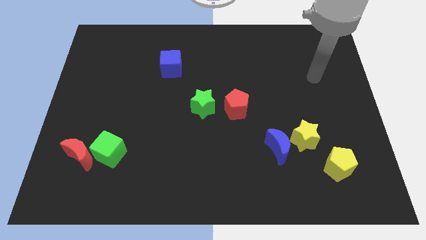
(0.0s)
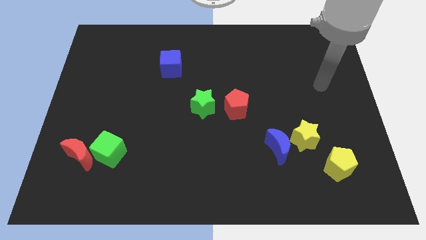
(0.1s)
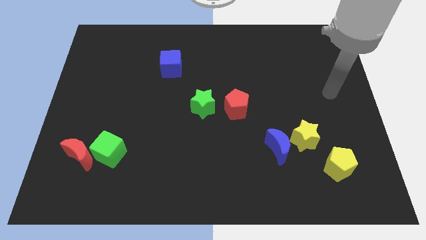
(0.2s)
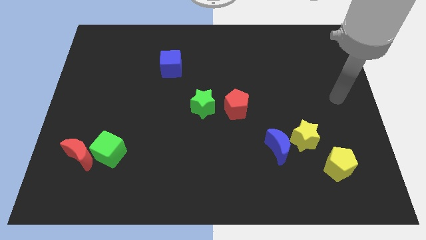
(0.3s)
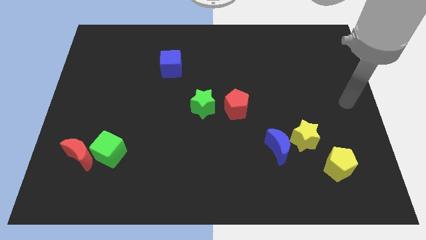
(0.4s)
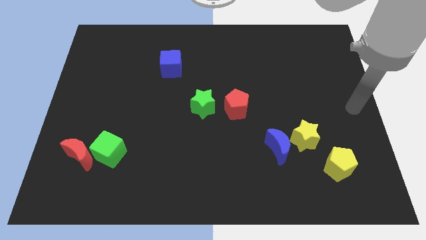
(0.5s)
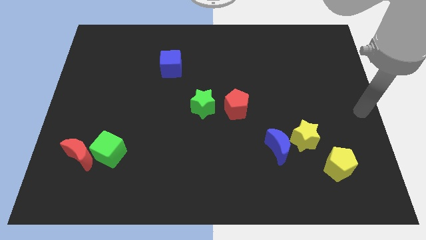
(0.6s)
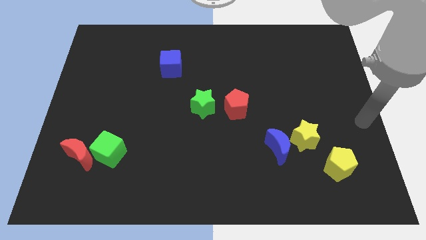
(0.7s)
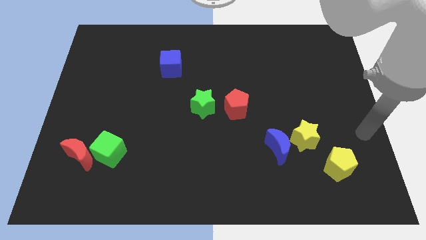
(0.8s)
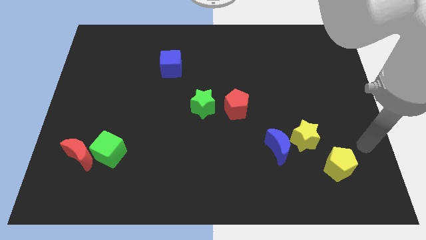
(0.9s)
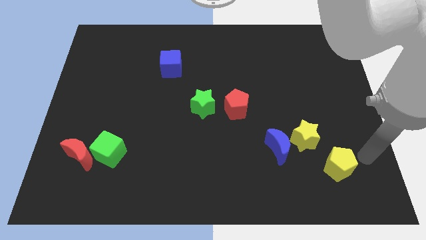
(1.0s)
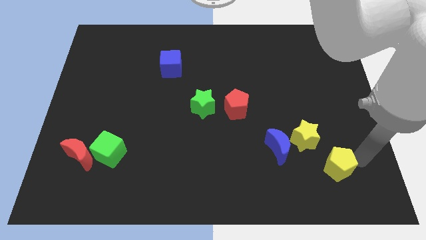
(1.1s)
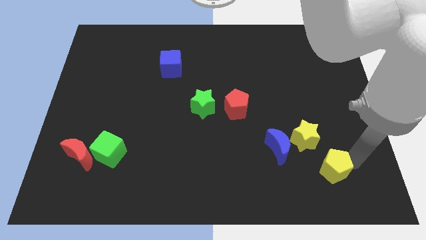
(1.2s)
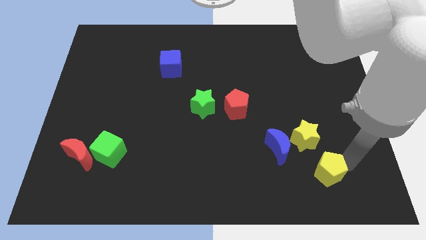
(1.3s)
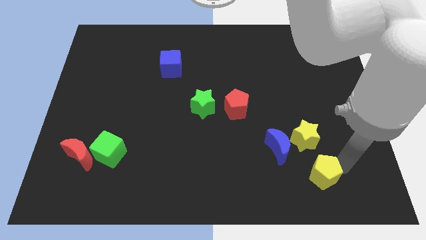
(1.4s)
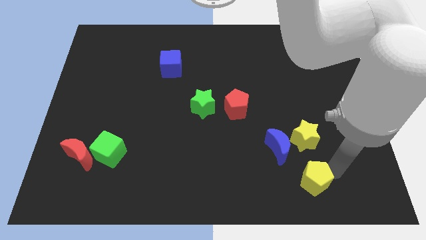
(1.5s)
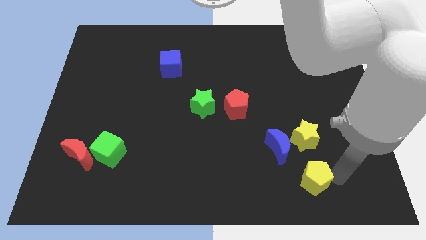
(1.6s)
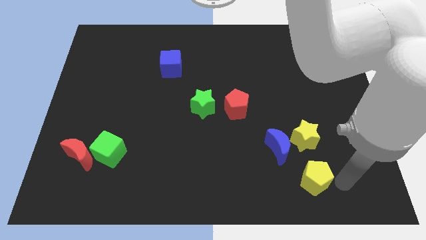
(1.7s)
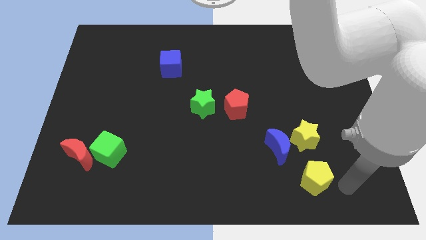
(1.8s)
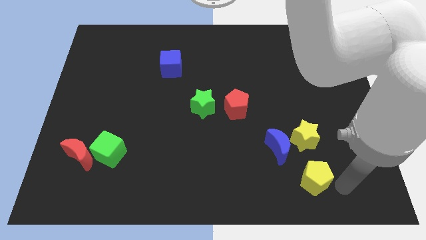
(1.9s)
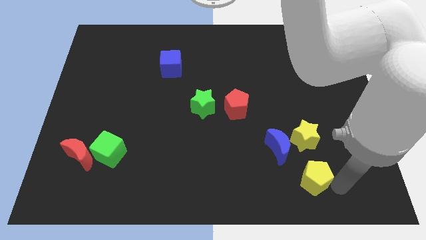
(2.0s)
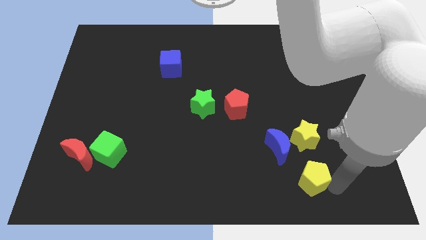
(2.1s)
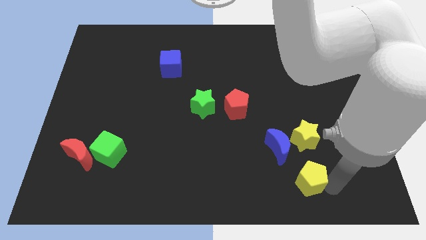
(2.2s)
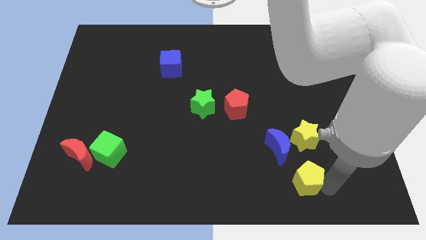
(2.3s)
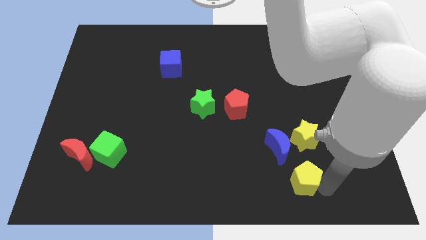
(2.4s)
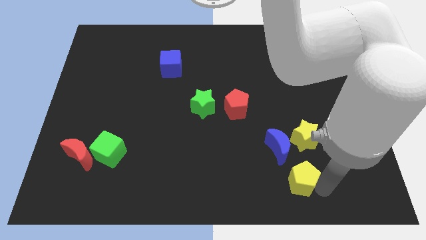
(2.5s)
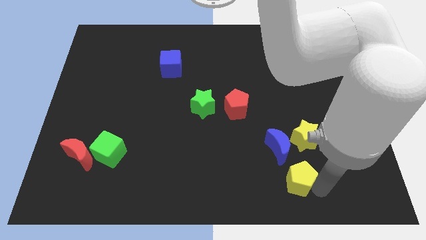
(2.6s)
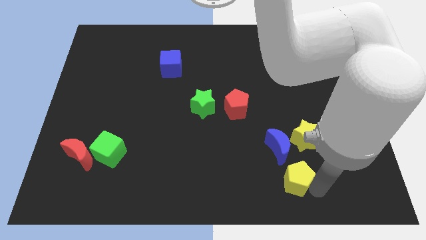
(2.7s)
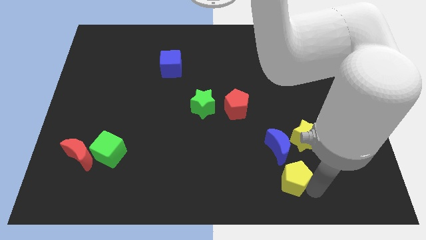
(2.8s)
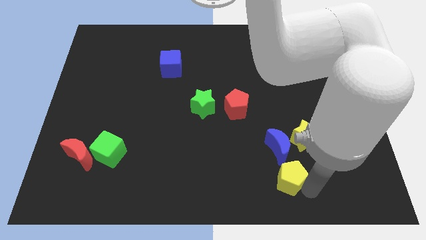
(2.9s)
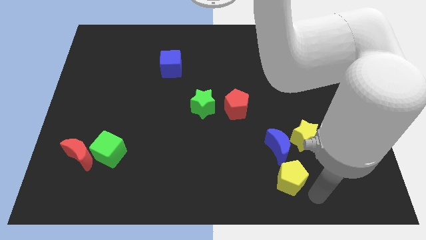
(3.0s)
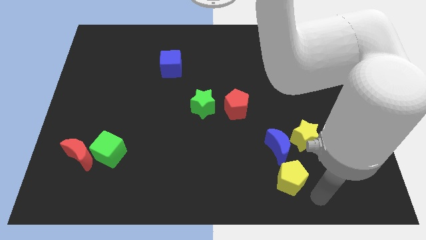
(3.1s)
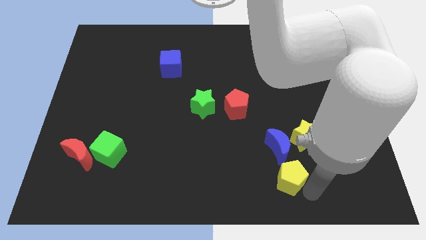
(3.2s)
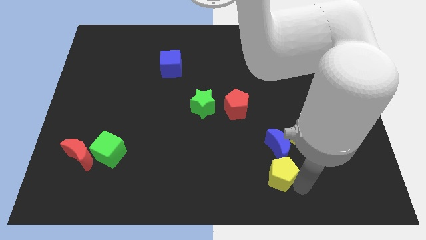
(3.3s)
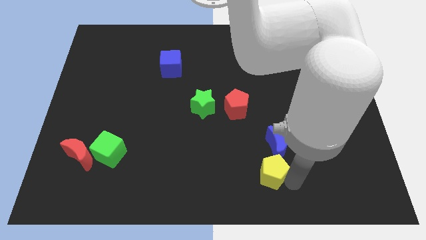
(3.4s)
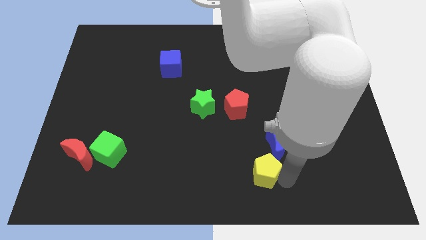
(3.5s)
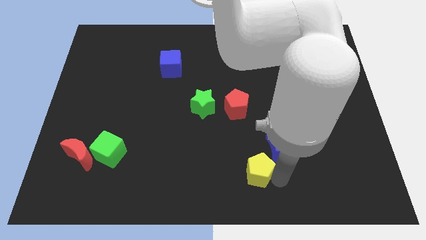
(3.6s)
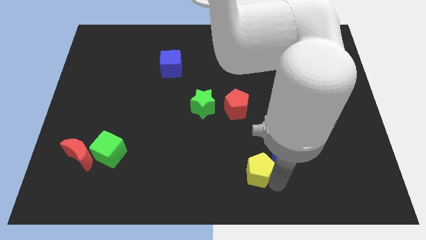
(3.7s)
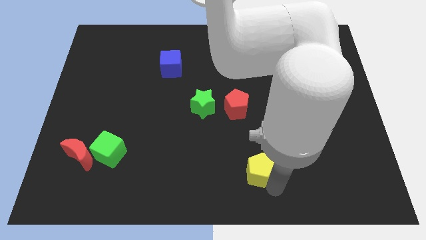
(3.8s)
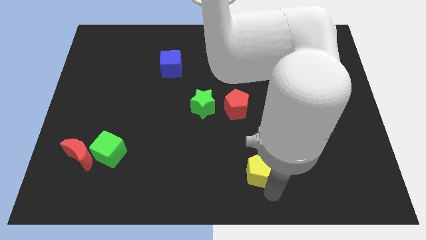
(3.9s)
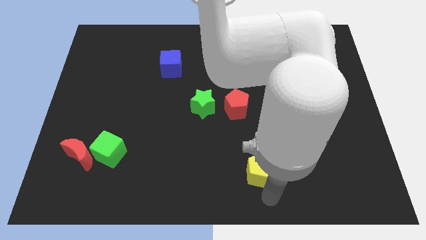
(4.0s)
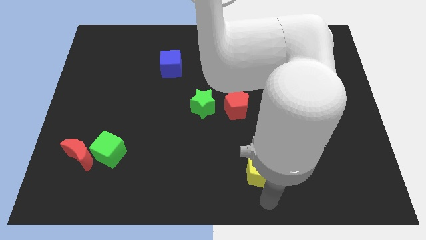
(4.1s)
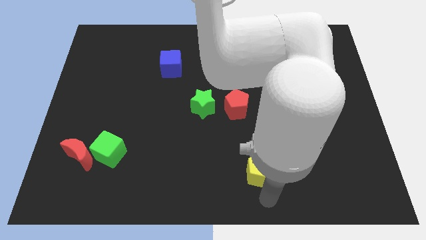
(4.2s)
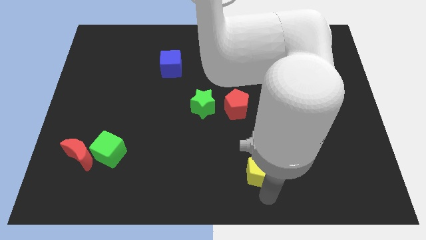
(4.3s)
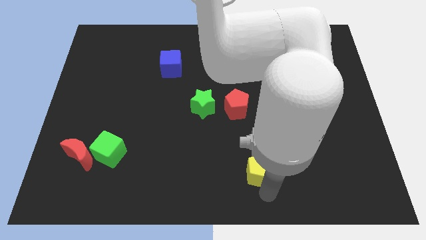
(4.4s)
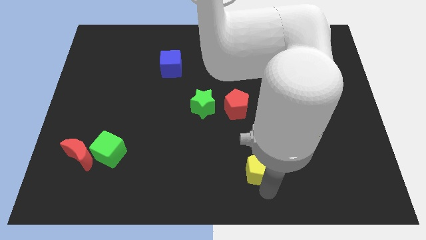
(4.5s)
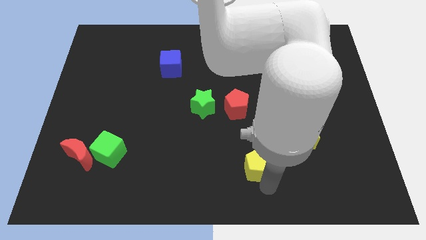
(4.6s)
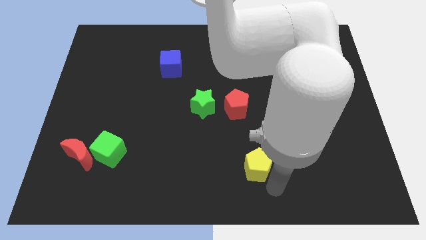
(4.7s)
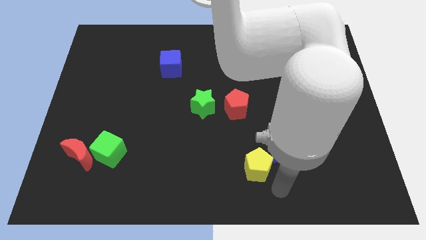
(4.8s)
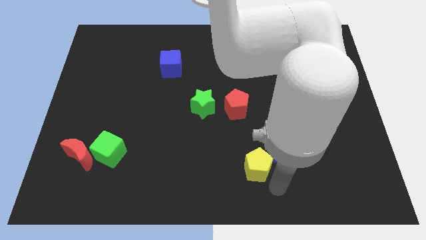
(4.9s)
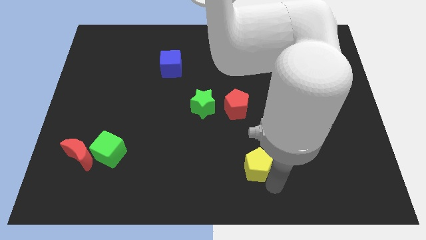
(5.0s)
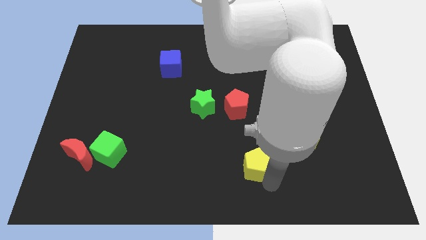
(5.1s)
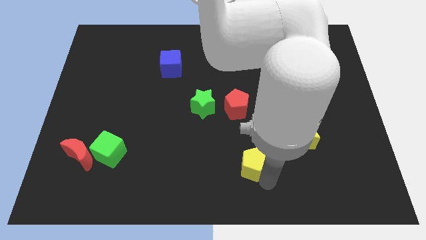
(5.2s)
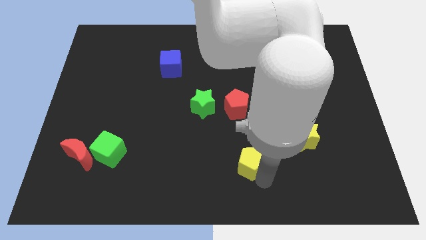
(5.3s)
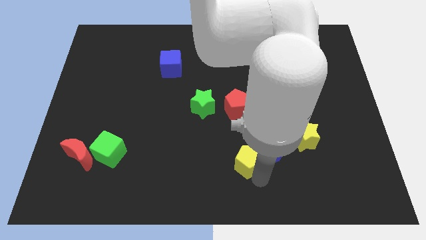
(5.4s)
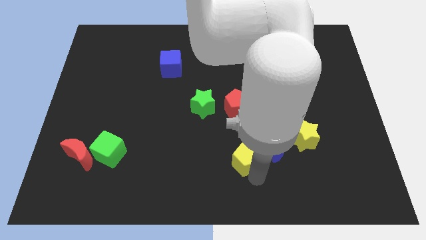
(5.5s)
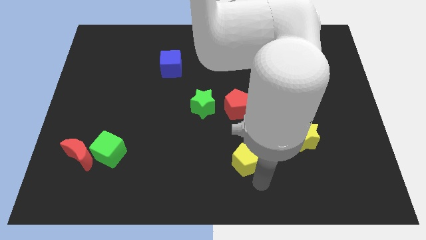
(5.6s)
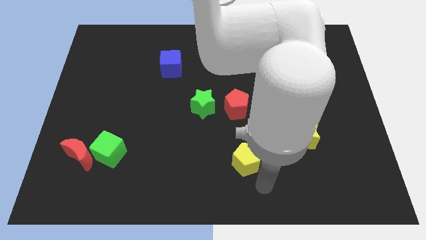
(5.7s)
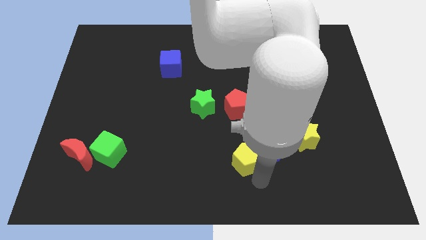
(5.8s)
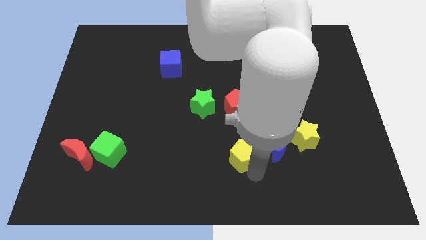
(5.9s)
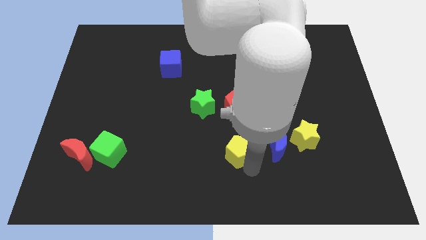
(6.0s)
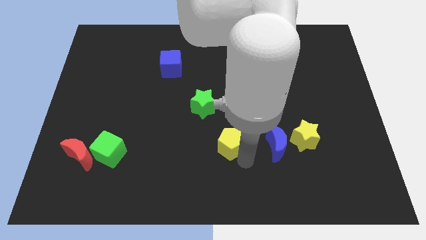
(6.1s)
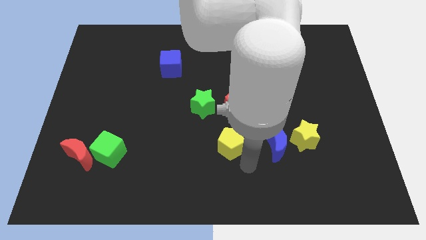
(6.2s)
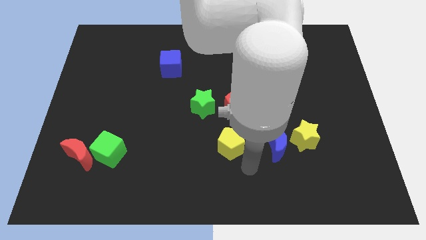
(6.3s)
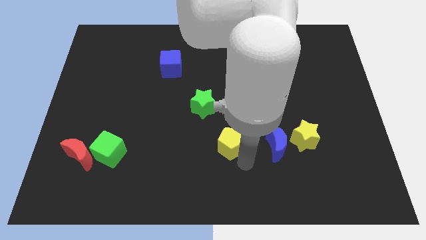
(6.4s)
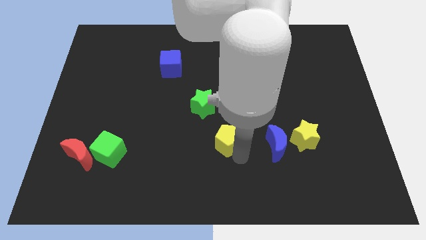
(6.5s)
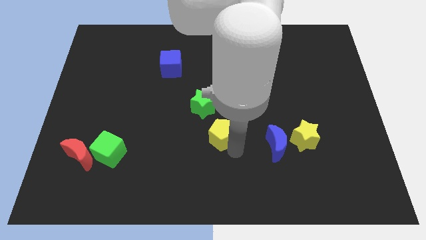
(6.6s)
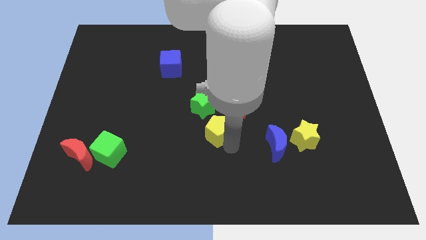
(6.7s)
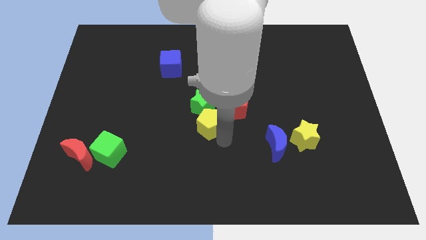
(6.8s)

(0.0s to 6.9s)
slide the yellow pentagon next to the green star

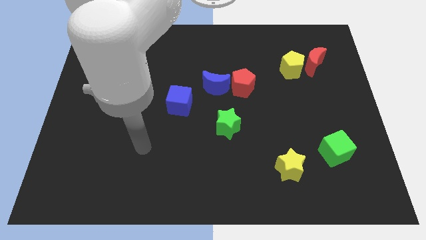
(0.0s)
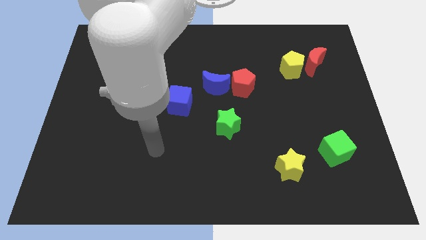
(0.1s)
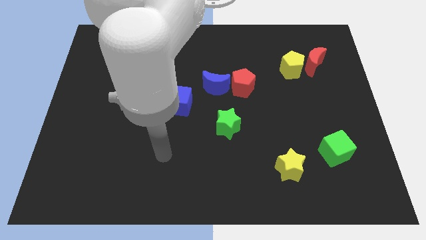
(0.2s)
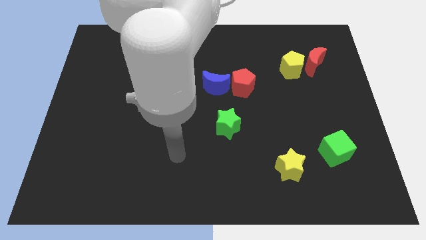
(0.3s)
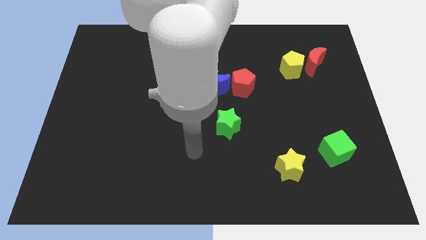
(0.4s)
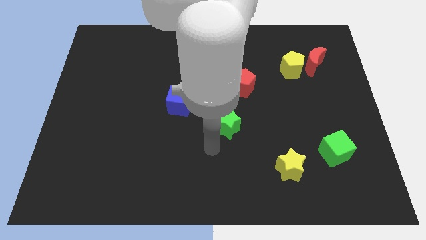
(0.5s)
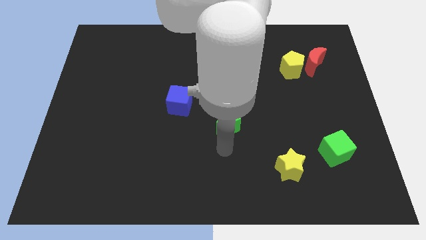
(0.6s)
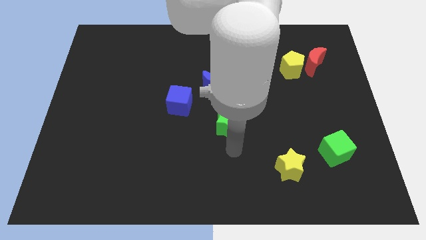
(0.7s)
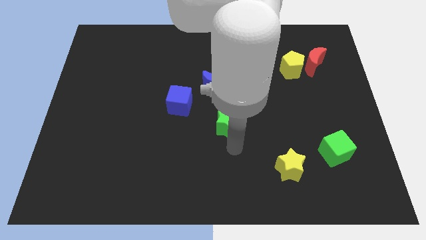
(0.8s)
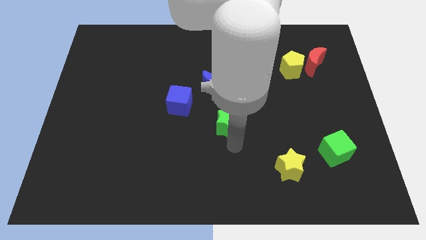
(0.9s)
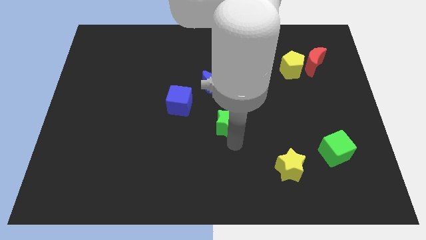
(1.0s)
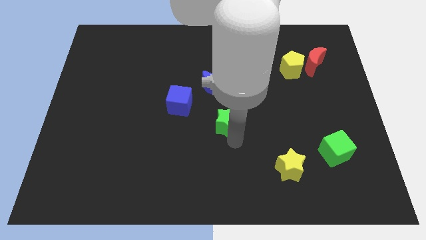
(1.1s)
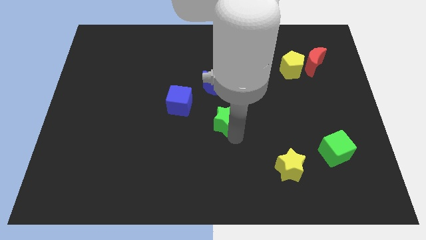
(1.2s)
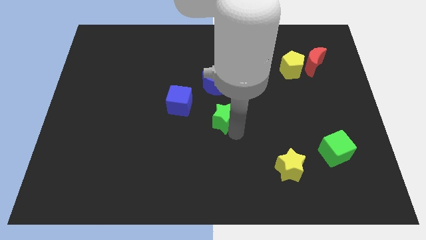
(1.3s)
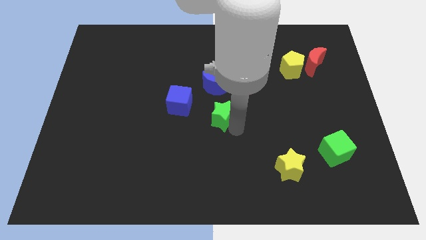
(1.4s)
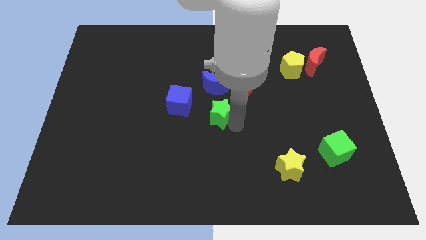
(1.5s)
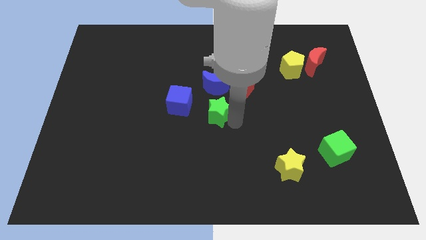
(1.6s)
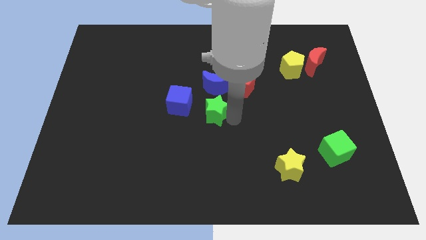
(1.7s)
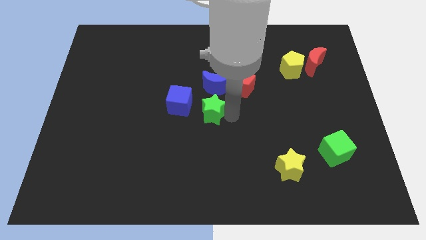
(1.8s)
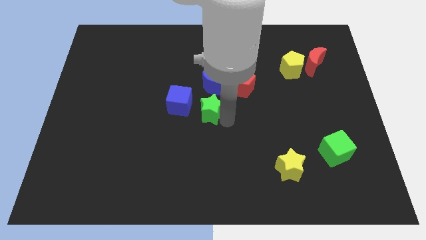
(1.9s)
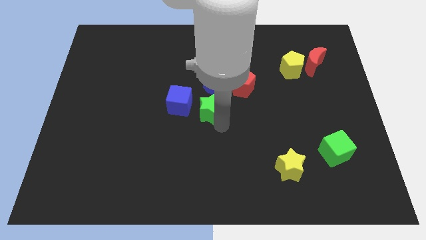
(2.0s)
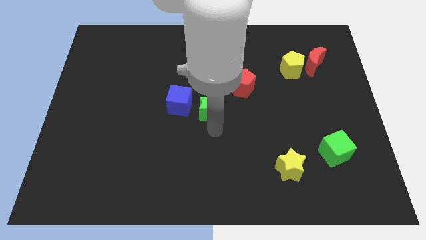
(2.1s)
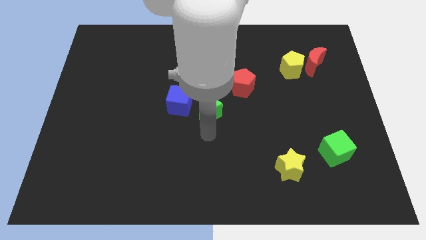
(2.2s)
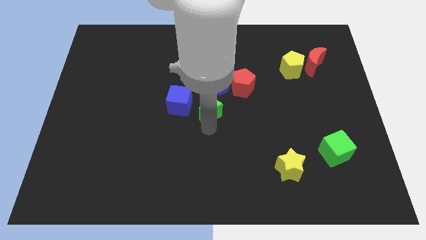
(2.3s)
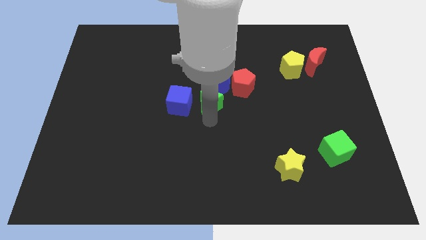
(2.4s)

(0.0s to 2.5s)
slide the green star to the blue moon
